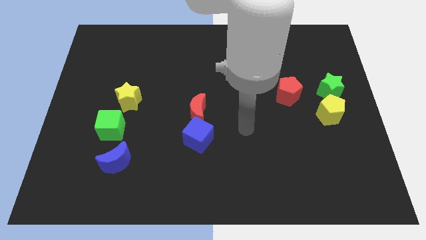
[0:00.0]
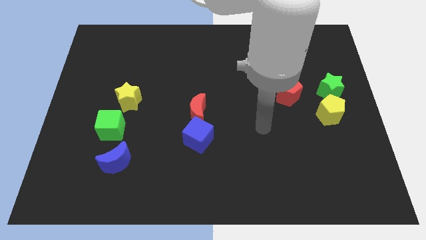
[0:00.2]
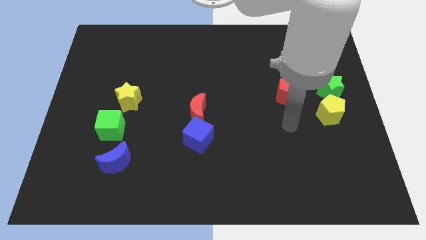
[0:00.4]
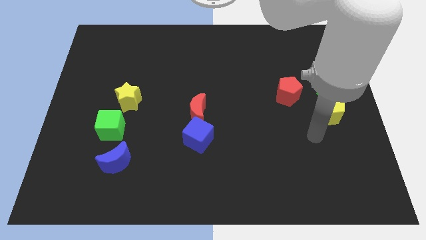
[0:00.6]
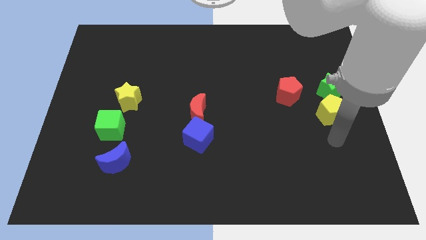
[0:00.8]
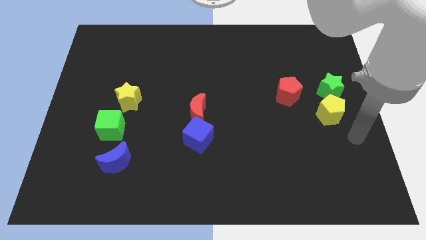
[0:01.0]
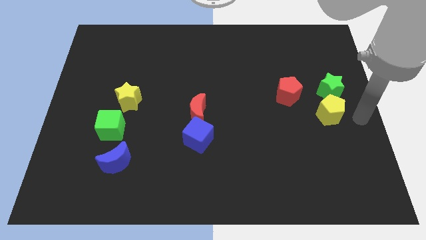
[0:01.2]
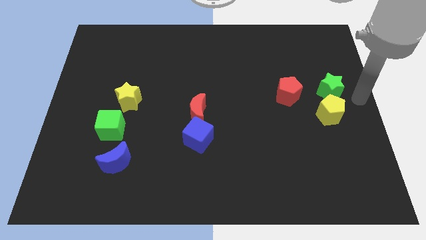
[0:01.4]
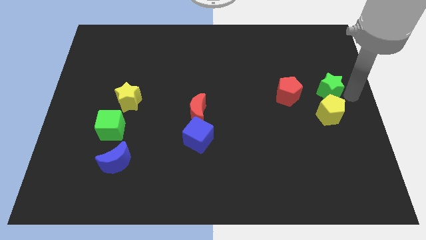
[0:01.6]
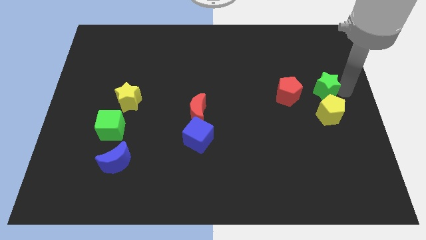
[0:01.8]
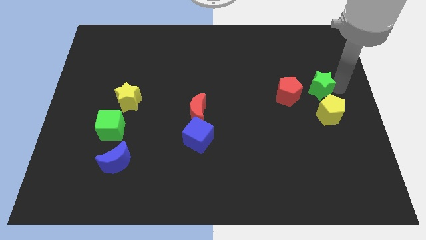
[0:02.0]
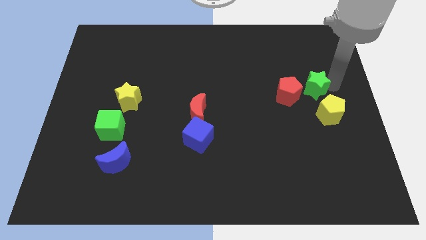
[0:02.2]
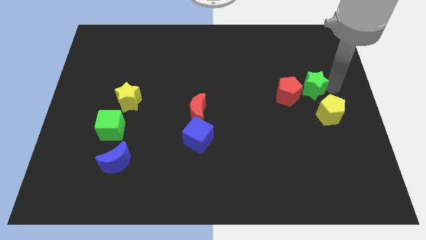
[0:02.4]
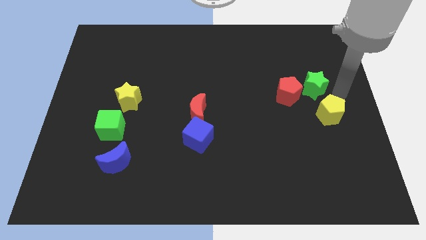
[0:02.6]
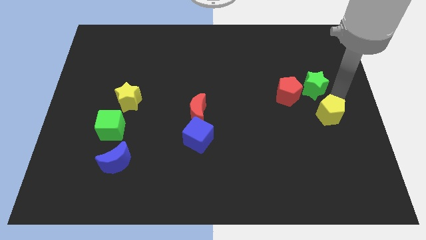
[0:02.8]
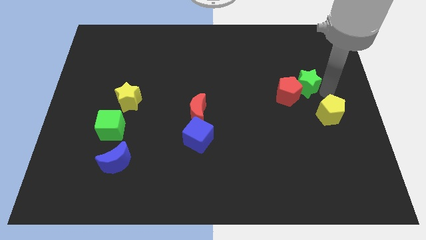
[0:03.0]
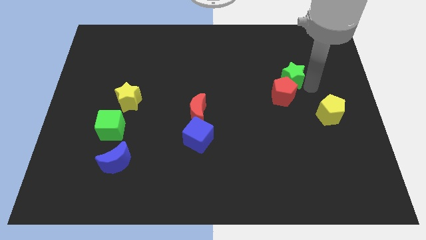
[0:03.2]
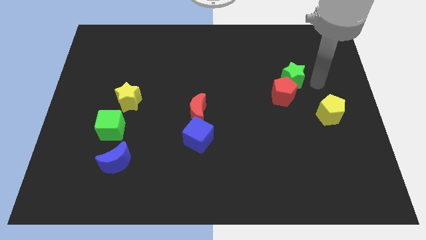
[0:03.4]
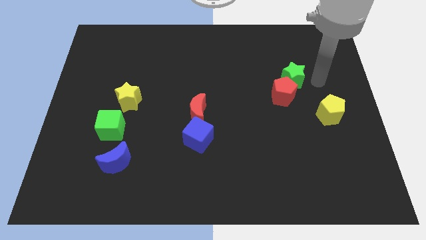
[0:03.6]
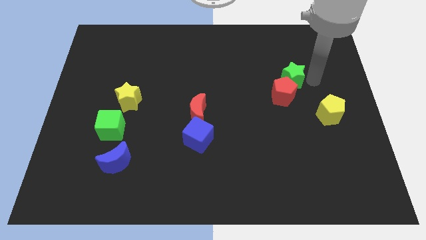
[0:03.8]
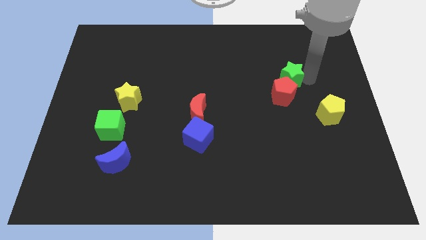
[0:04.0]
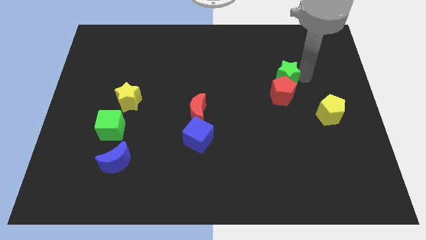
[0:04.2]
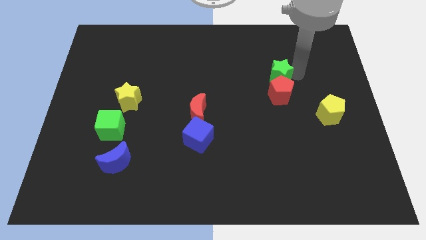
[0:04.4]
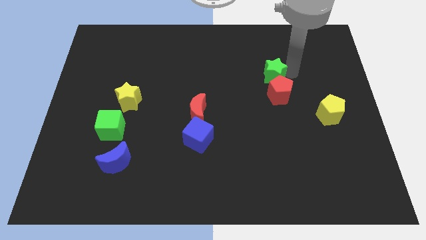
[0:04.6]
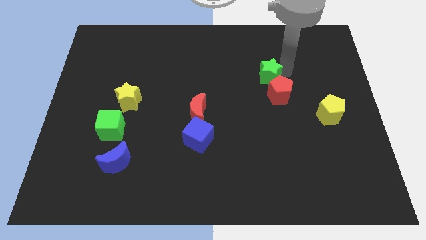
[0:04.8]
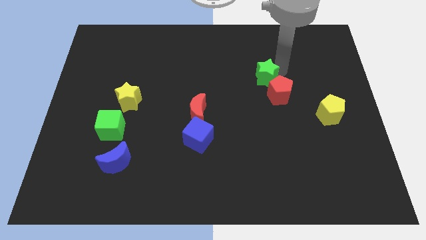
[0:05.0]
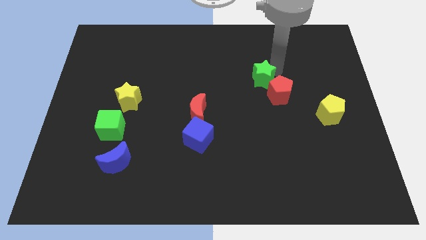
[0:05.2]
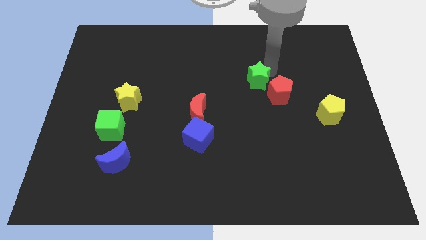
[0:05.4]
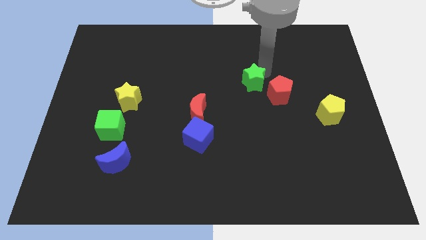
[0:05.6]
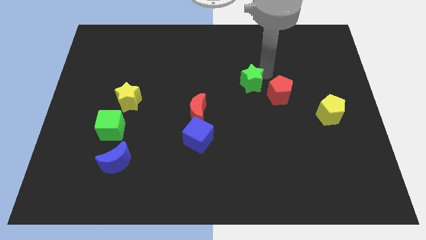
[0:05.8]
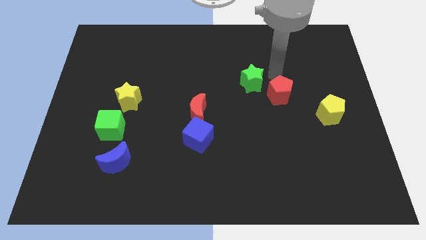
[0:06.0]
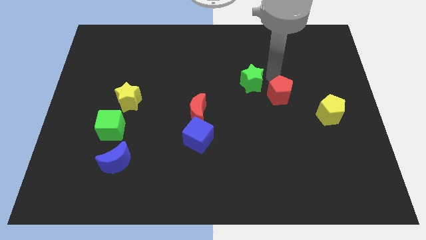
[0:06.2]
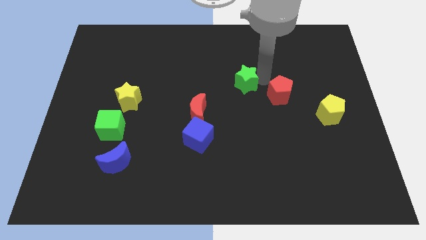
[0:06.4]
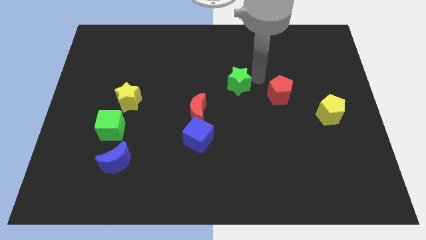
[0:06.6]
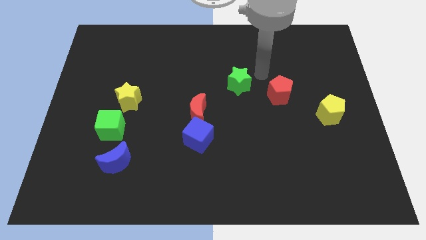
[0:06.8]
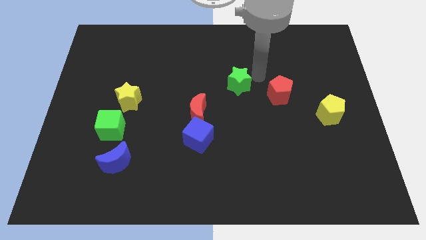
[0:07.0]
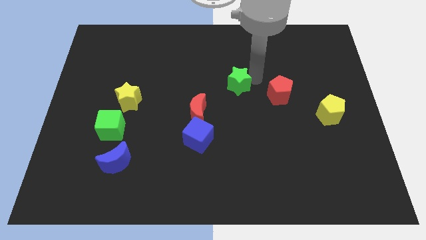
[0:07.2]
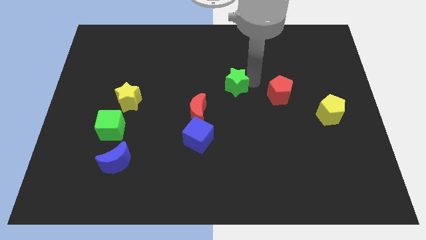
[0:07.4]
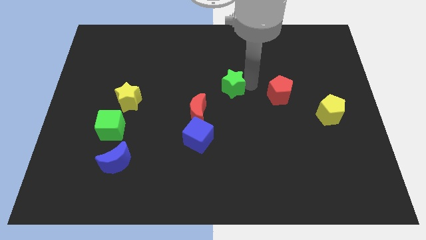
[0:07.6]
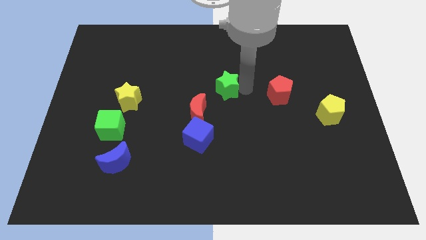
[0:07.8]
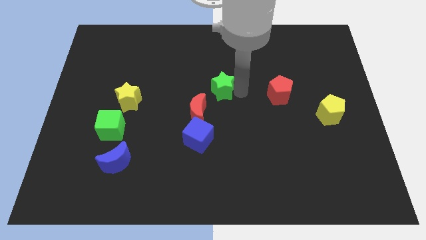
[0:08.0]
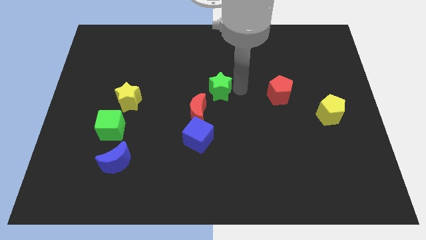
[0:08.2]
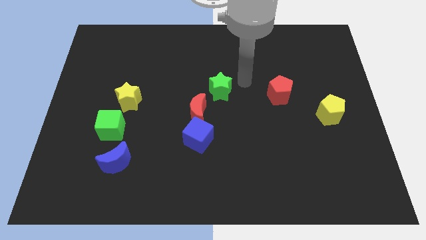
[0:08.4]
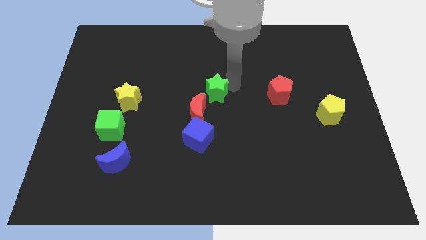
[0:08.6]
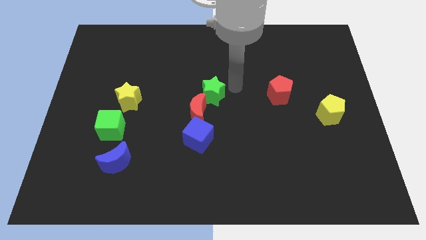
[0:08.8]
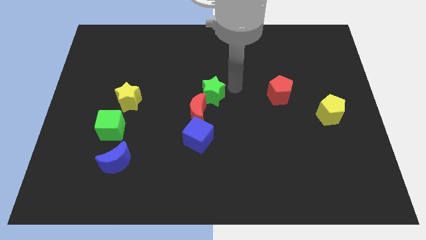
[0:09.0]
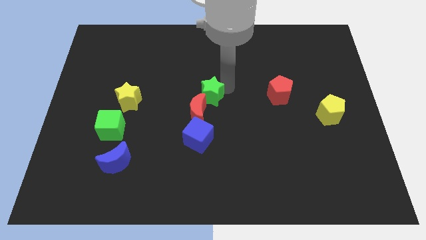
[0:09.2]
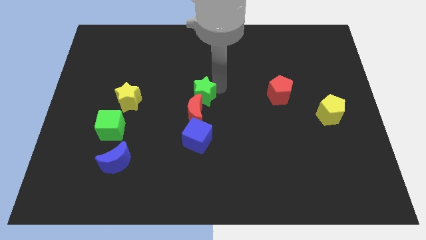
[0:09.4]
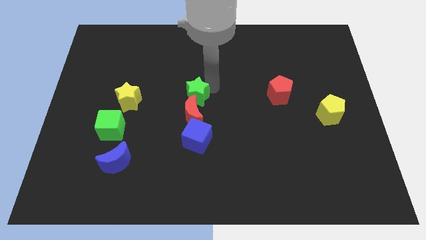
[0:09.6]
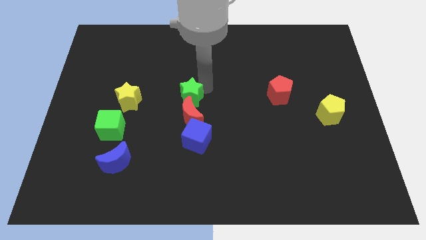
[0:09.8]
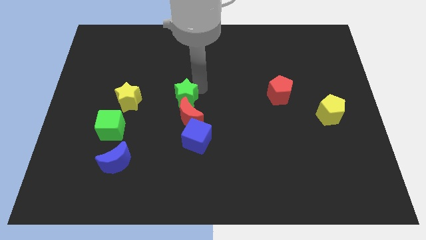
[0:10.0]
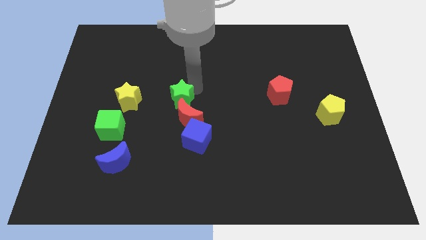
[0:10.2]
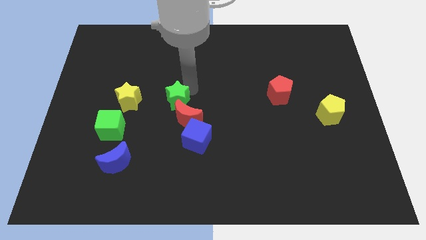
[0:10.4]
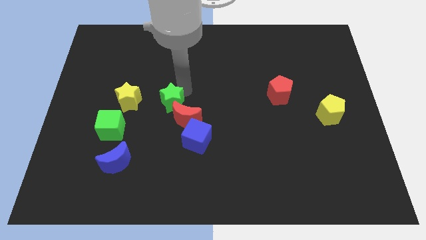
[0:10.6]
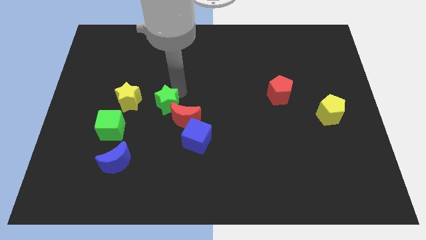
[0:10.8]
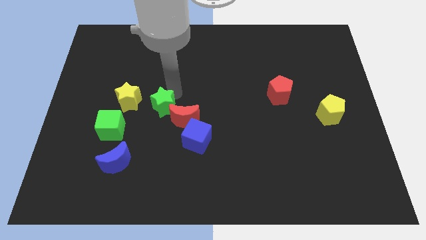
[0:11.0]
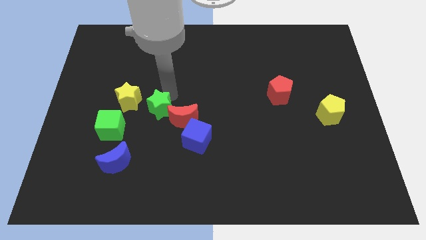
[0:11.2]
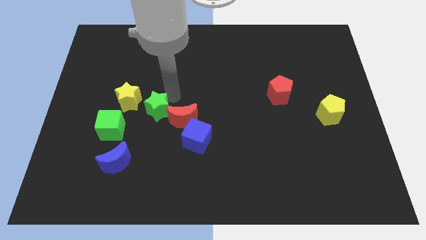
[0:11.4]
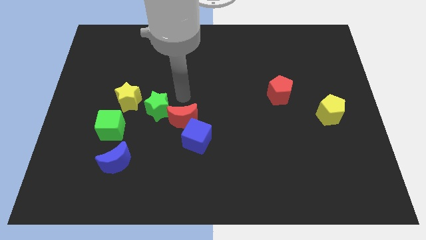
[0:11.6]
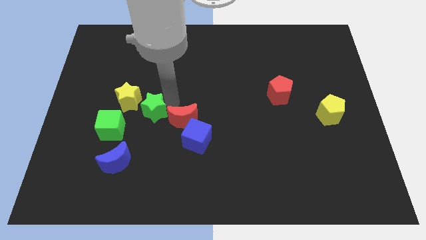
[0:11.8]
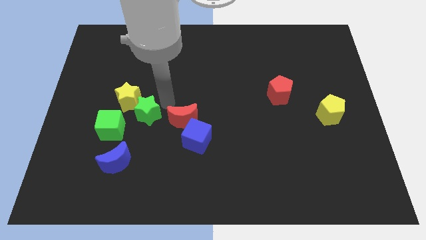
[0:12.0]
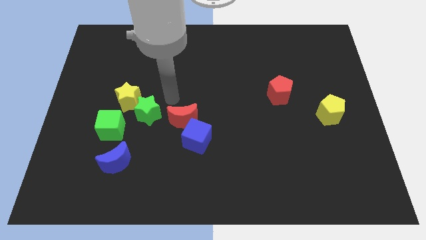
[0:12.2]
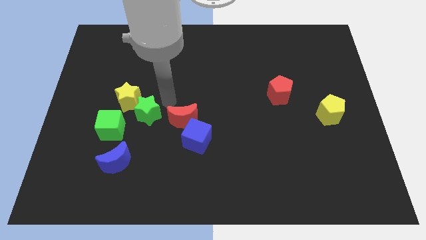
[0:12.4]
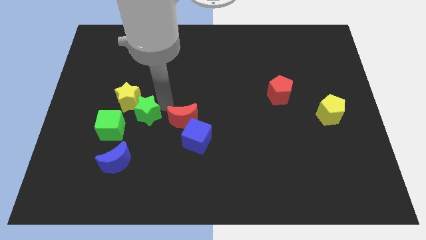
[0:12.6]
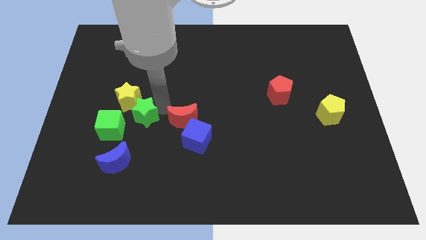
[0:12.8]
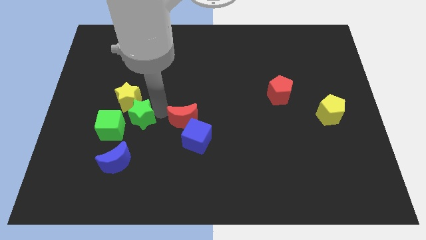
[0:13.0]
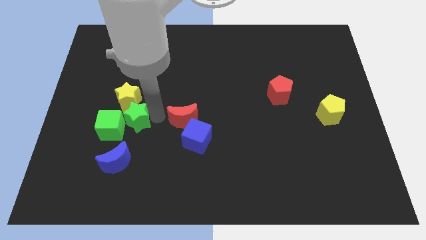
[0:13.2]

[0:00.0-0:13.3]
push the green star towards the green cube

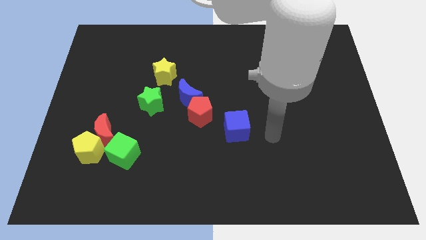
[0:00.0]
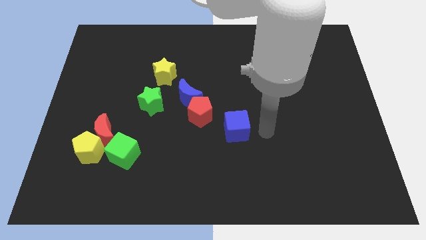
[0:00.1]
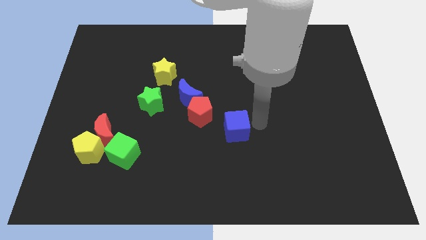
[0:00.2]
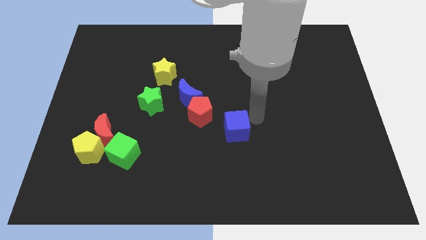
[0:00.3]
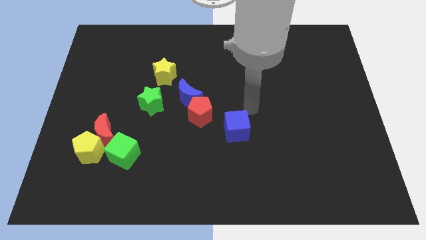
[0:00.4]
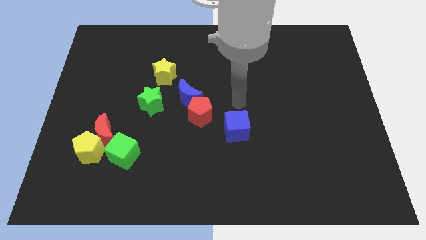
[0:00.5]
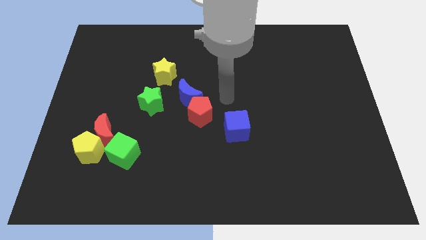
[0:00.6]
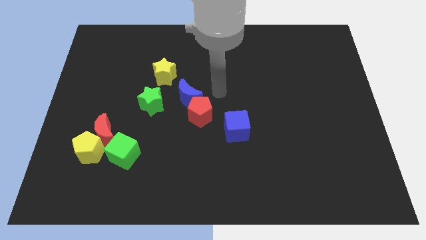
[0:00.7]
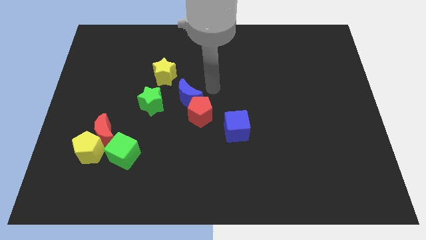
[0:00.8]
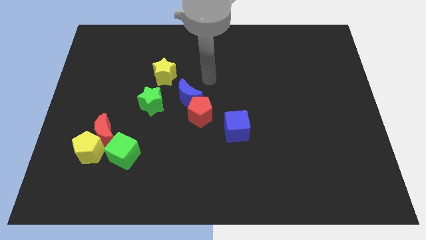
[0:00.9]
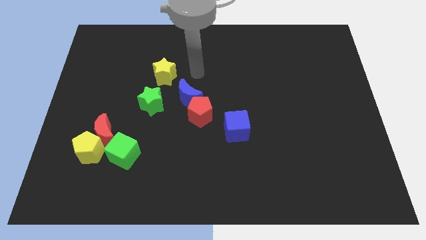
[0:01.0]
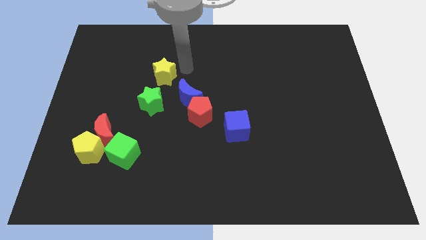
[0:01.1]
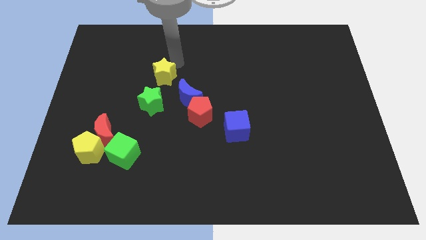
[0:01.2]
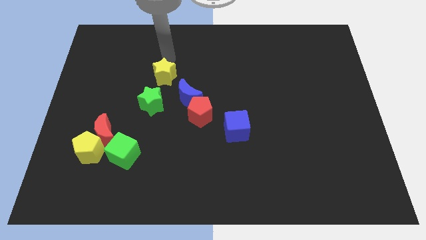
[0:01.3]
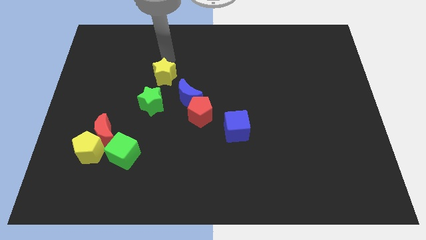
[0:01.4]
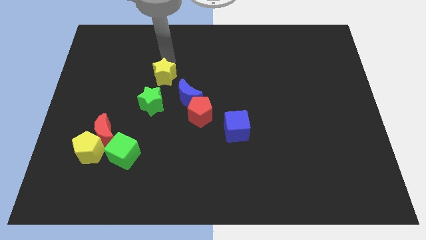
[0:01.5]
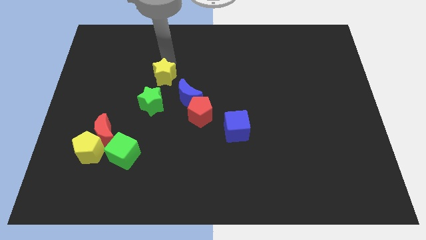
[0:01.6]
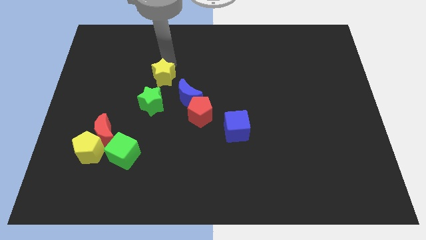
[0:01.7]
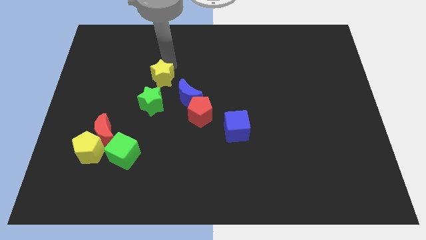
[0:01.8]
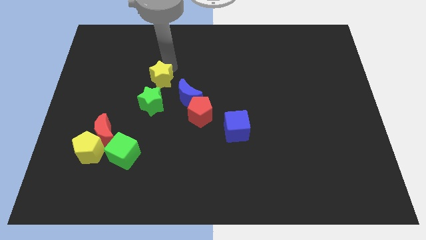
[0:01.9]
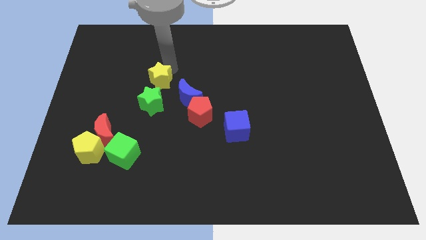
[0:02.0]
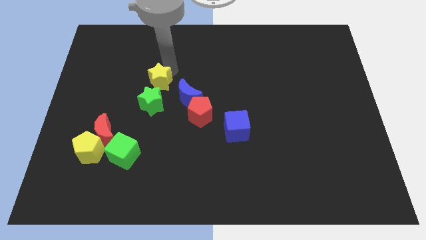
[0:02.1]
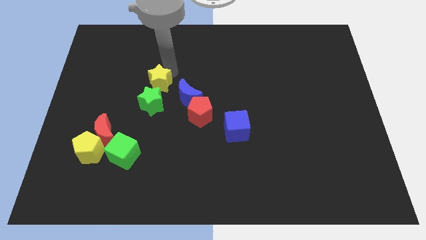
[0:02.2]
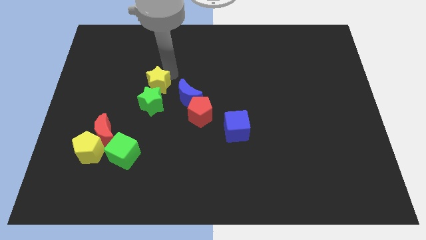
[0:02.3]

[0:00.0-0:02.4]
move the yellow star to the green star
